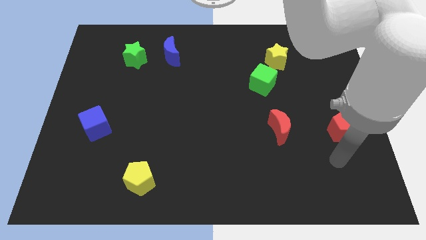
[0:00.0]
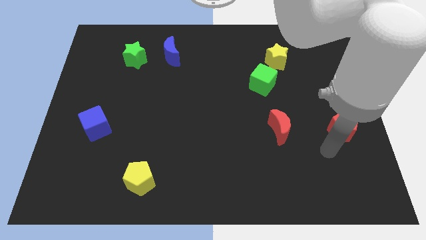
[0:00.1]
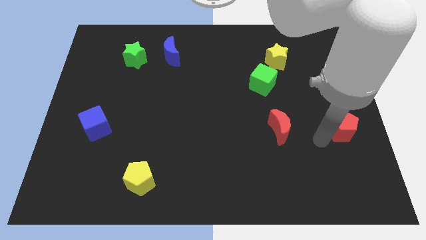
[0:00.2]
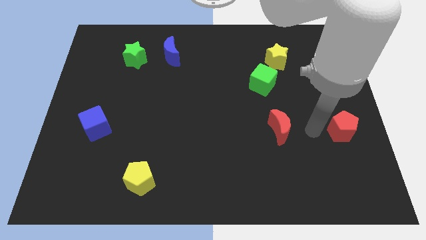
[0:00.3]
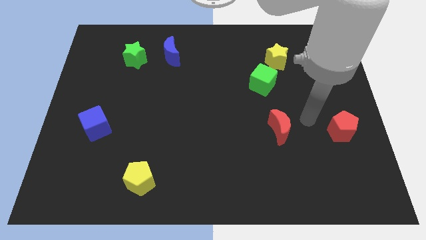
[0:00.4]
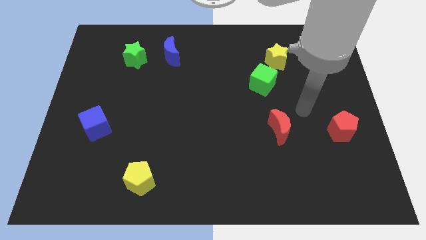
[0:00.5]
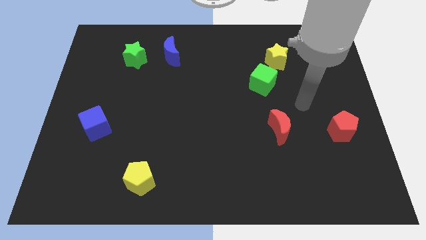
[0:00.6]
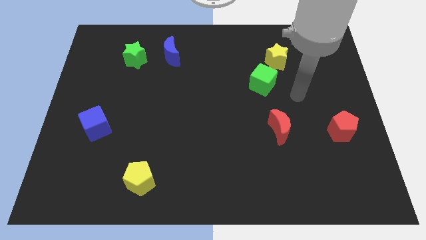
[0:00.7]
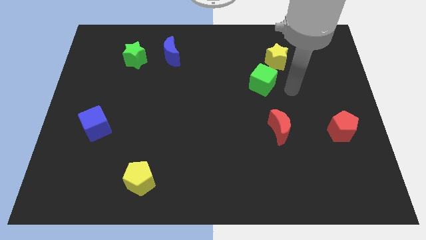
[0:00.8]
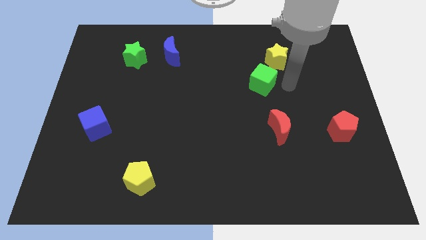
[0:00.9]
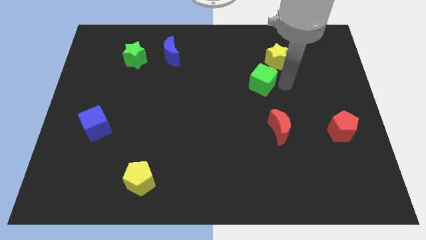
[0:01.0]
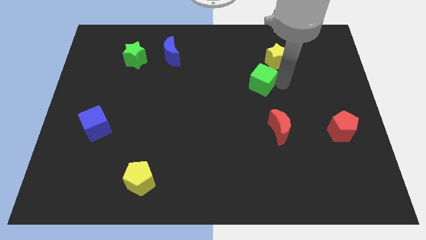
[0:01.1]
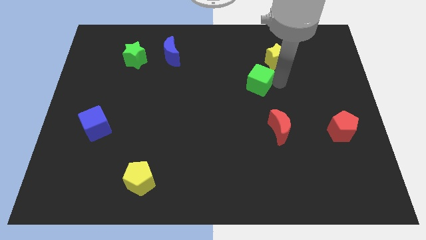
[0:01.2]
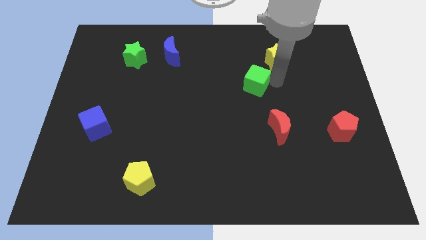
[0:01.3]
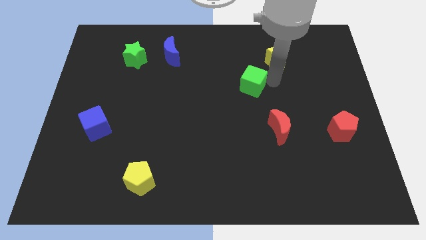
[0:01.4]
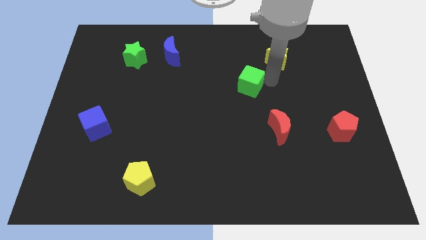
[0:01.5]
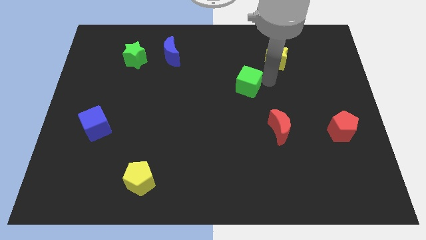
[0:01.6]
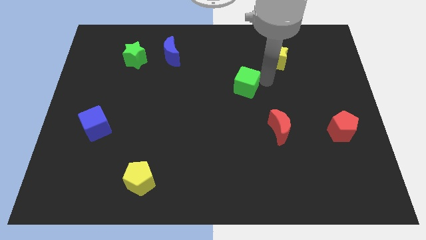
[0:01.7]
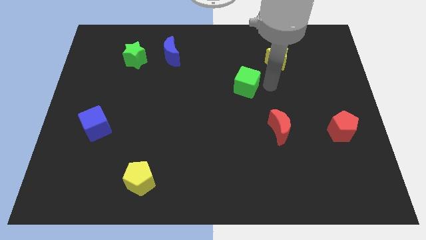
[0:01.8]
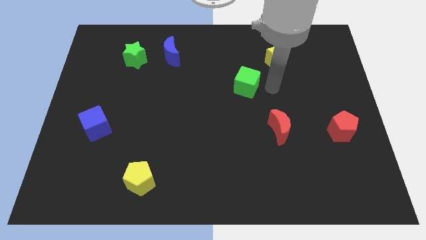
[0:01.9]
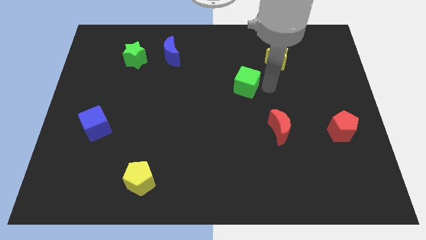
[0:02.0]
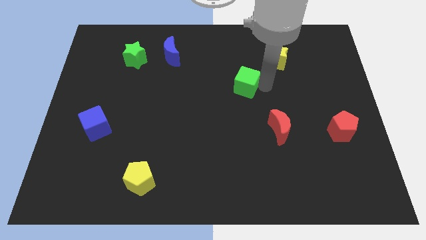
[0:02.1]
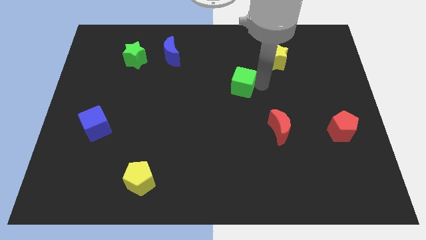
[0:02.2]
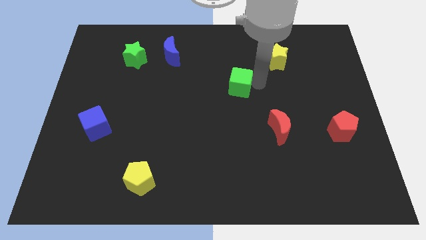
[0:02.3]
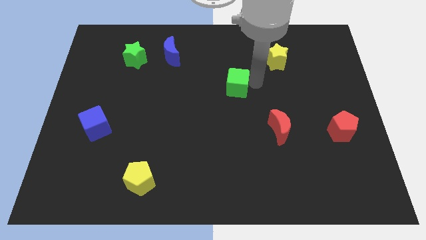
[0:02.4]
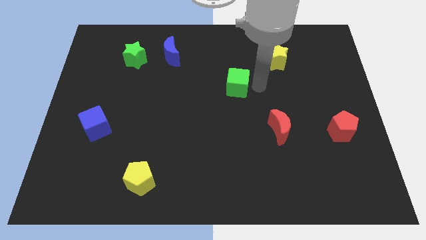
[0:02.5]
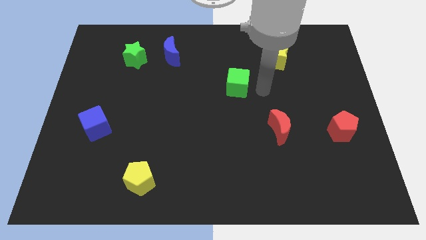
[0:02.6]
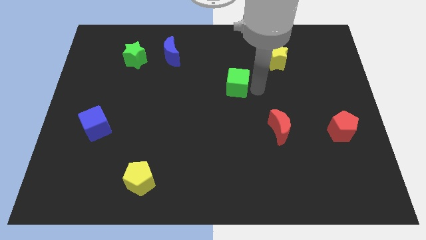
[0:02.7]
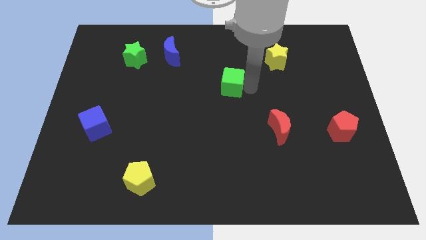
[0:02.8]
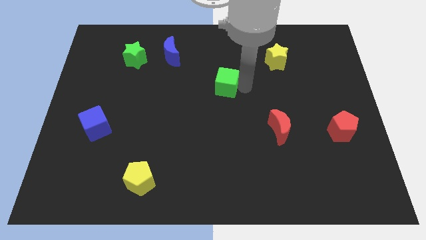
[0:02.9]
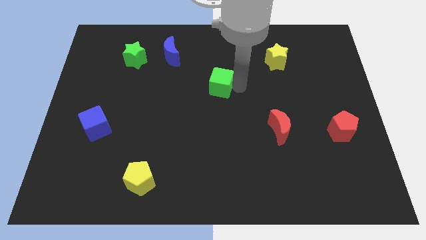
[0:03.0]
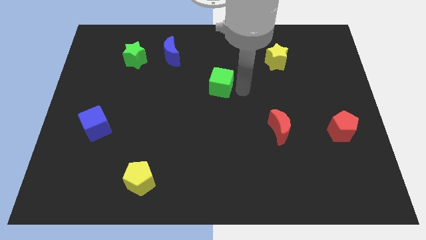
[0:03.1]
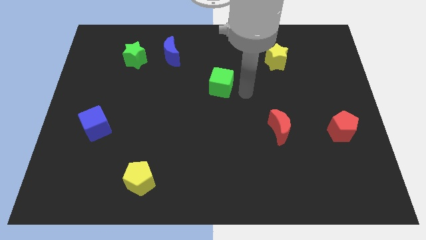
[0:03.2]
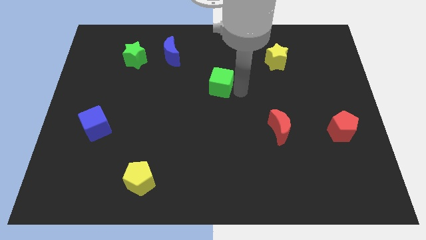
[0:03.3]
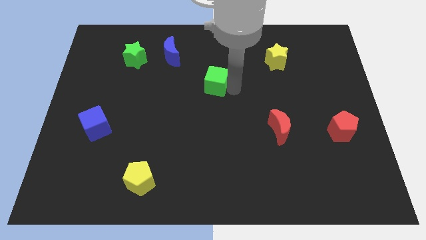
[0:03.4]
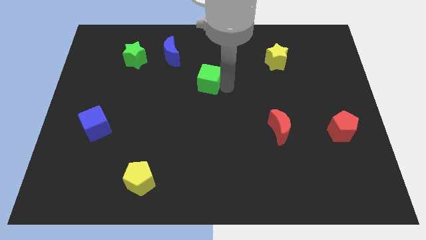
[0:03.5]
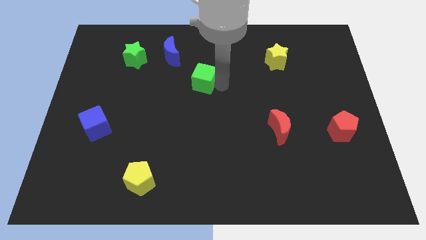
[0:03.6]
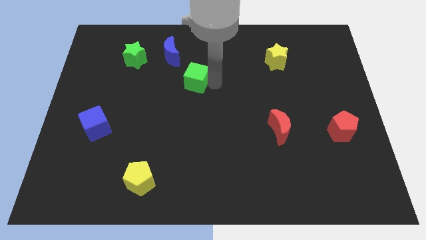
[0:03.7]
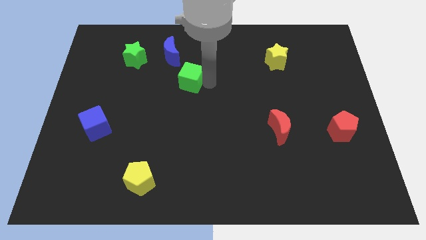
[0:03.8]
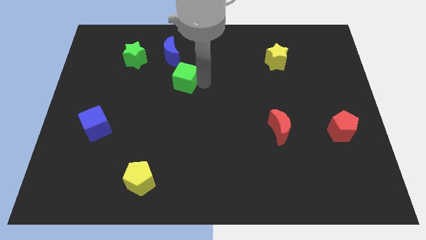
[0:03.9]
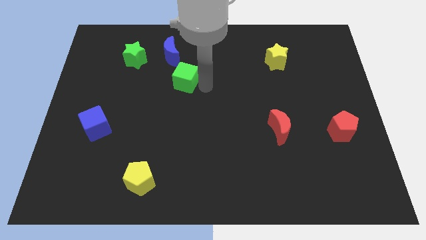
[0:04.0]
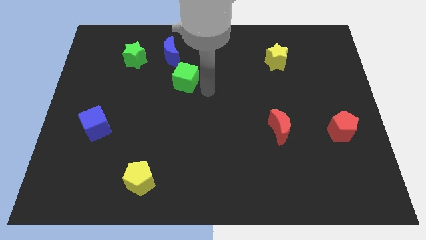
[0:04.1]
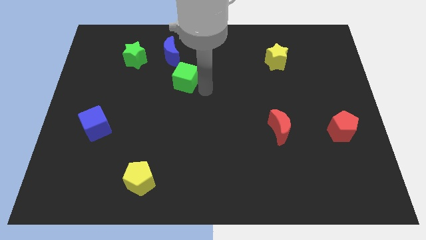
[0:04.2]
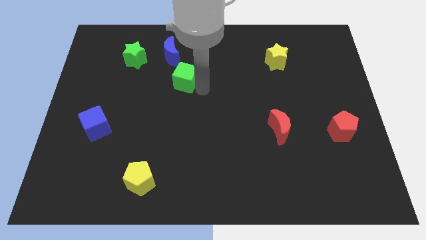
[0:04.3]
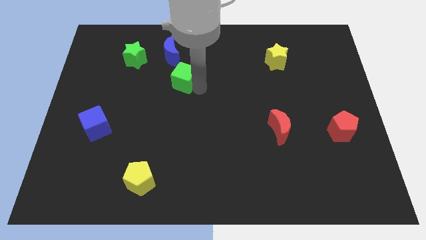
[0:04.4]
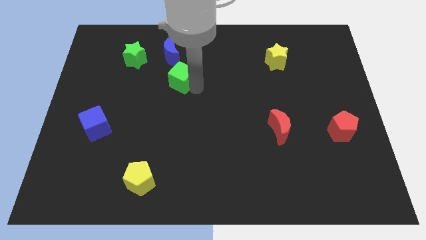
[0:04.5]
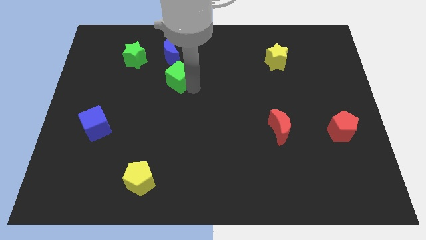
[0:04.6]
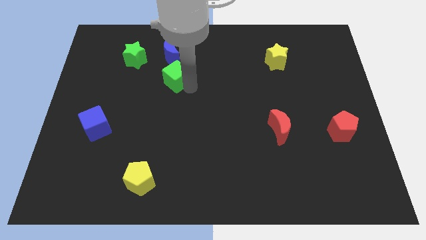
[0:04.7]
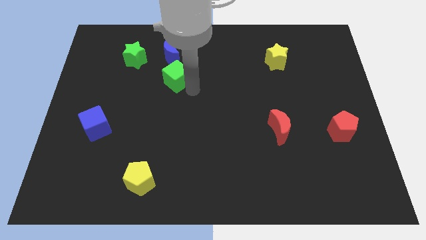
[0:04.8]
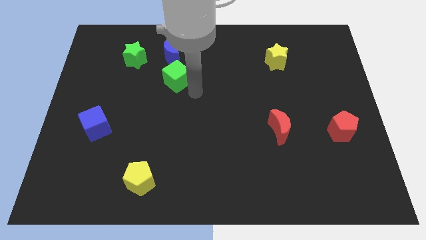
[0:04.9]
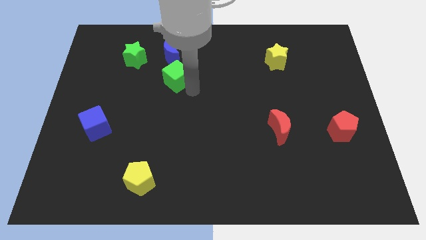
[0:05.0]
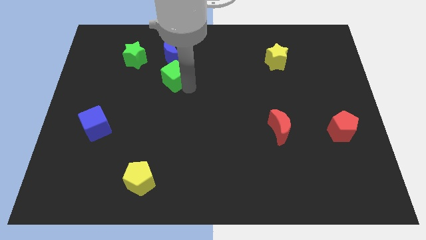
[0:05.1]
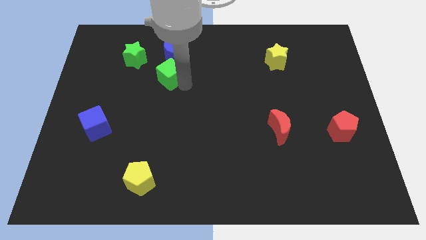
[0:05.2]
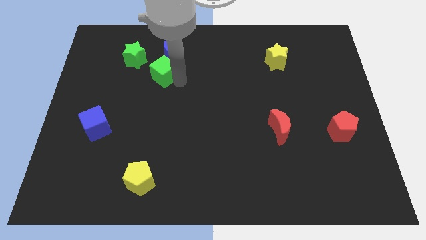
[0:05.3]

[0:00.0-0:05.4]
move the green cube to the bottom left of the blue moon

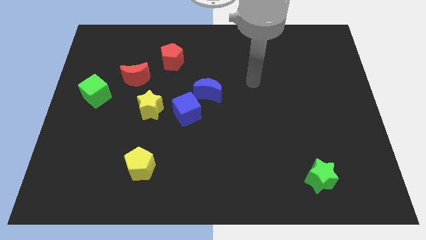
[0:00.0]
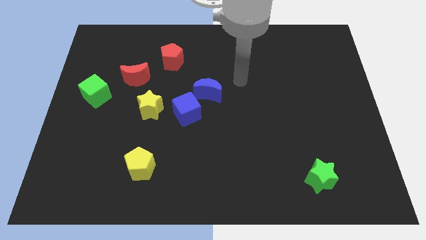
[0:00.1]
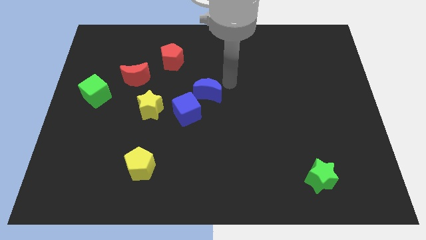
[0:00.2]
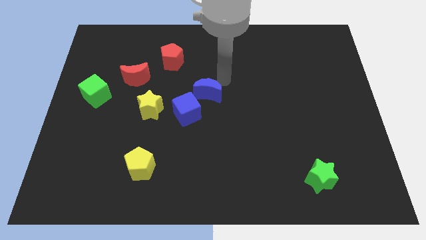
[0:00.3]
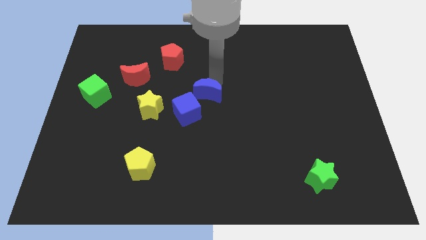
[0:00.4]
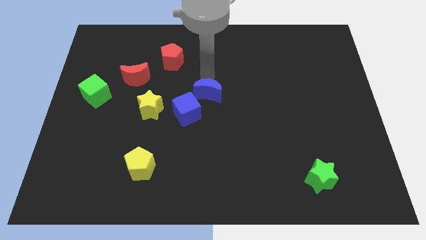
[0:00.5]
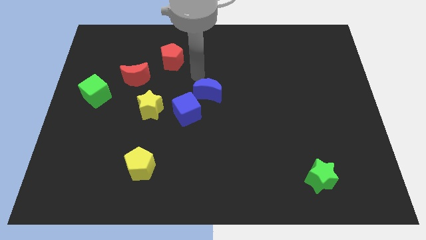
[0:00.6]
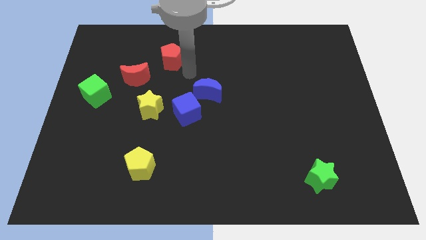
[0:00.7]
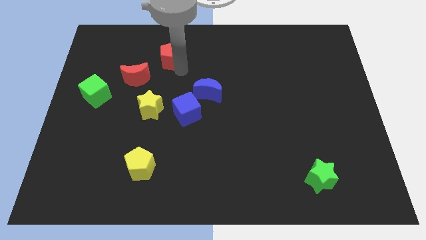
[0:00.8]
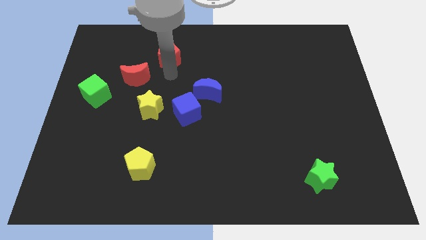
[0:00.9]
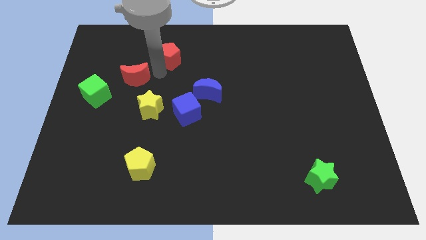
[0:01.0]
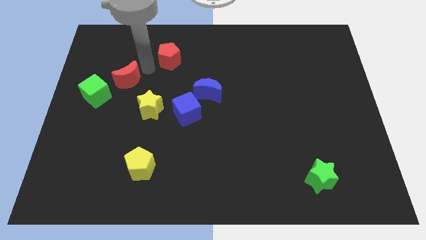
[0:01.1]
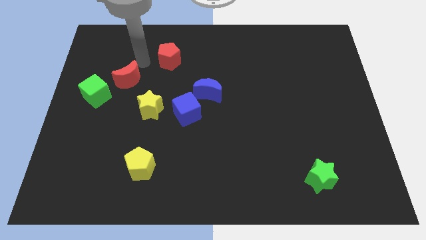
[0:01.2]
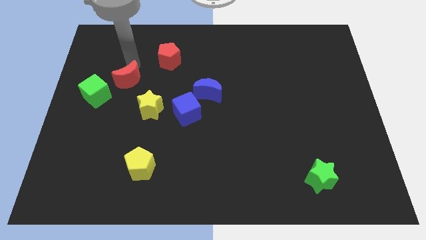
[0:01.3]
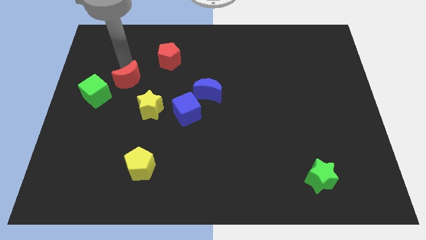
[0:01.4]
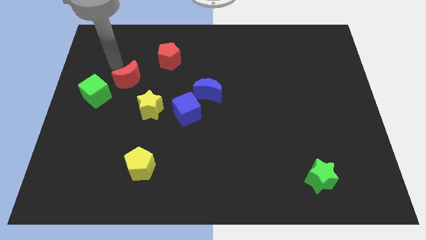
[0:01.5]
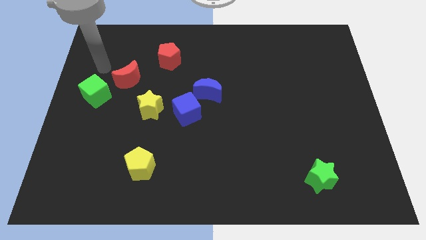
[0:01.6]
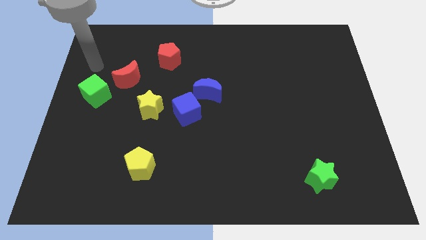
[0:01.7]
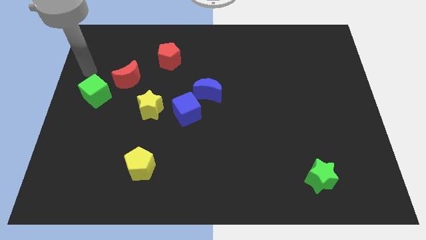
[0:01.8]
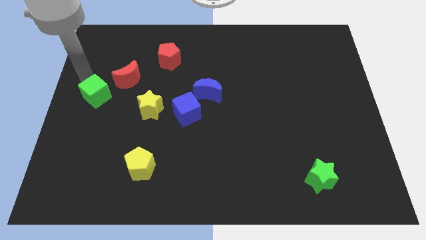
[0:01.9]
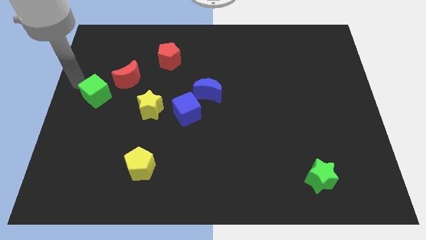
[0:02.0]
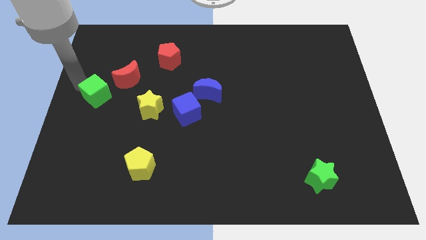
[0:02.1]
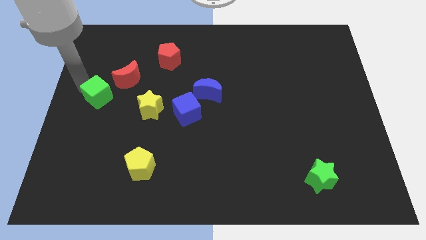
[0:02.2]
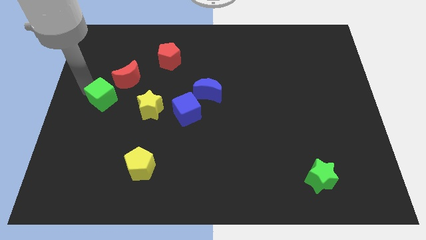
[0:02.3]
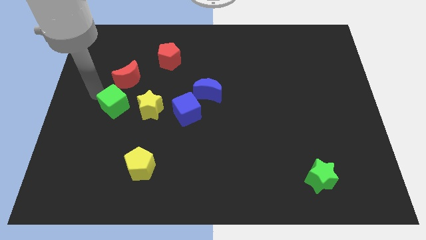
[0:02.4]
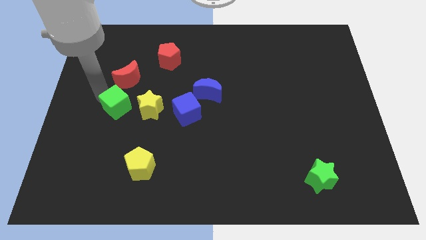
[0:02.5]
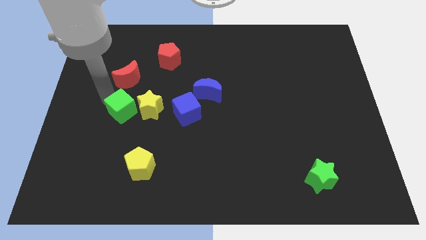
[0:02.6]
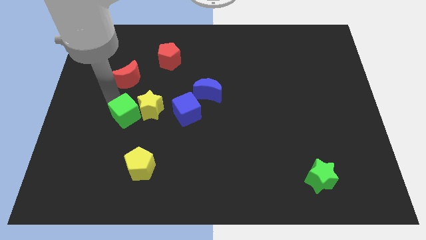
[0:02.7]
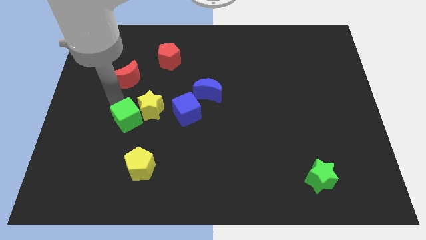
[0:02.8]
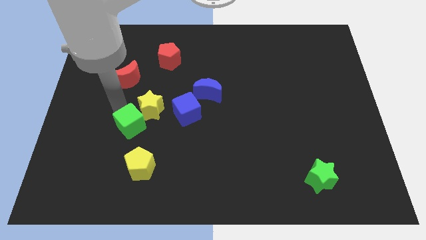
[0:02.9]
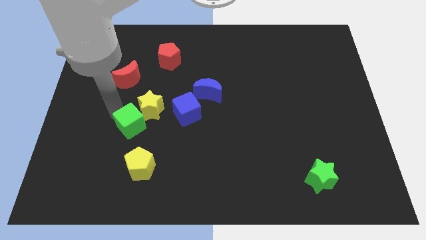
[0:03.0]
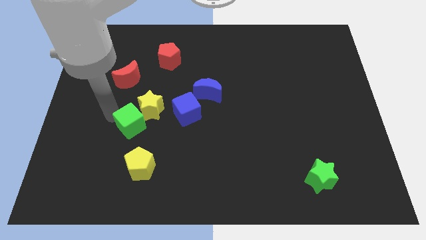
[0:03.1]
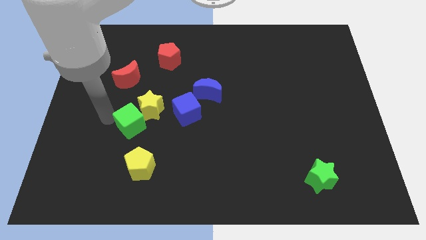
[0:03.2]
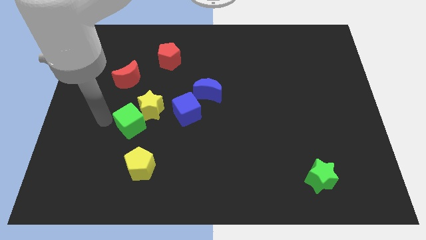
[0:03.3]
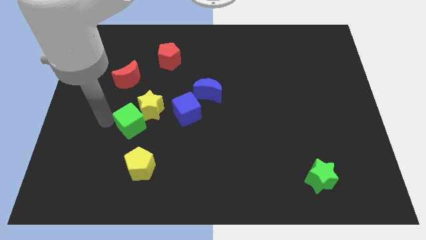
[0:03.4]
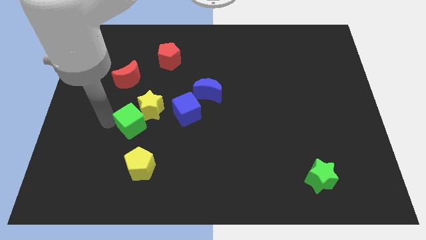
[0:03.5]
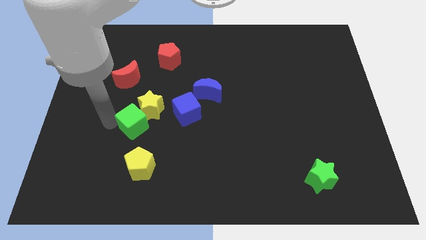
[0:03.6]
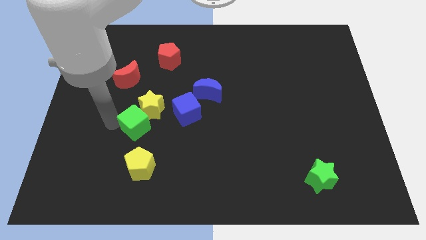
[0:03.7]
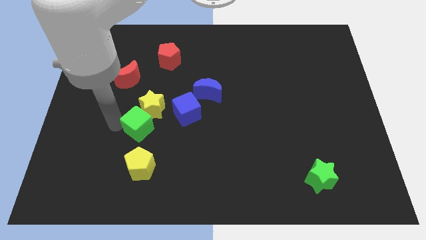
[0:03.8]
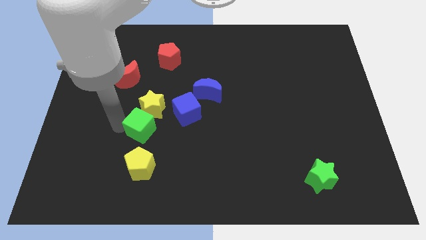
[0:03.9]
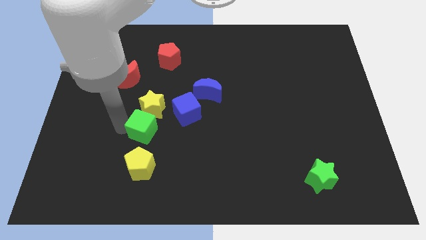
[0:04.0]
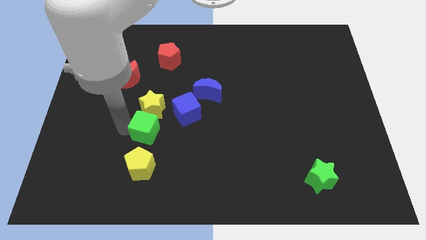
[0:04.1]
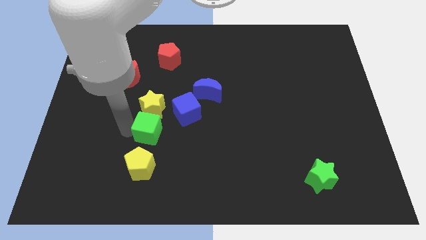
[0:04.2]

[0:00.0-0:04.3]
put the green cube diagonally down and to the right of the yellow star
